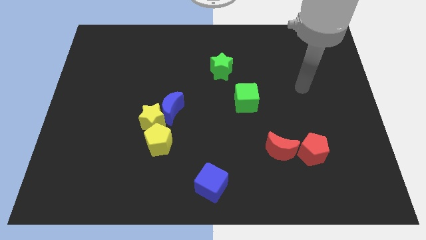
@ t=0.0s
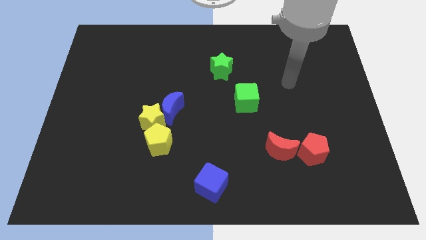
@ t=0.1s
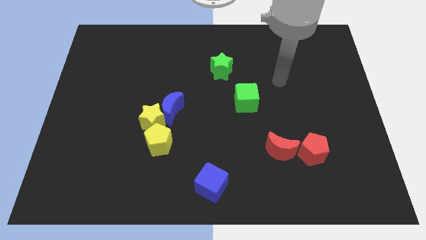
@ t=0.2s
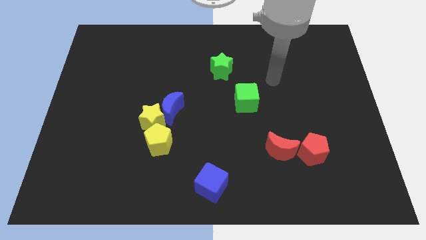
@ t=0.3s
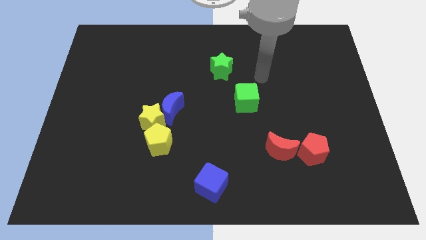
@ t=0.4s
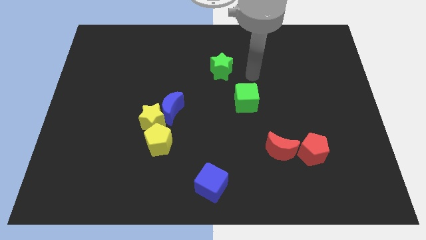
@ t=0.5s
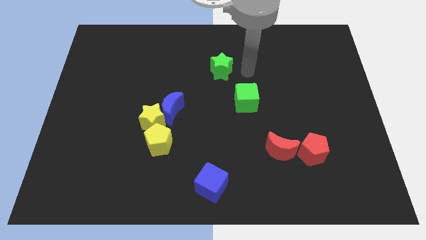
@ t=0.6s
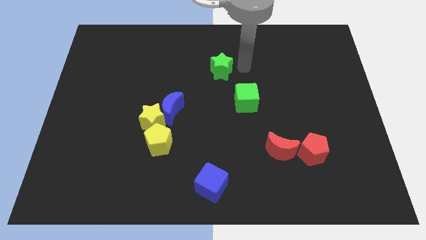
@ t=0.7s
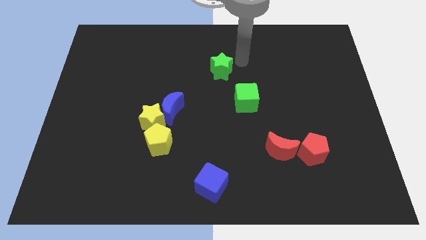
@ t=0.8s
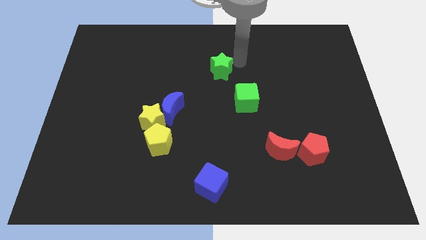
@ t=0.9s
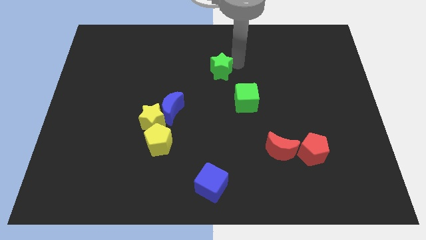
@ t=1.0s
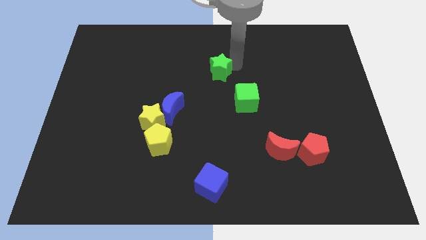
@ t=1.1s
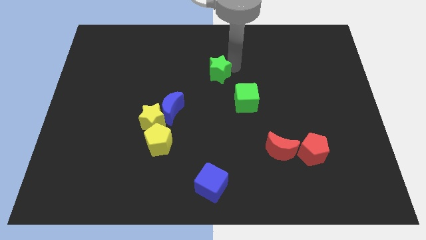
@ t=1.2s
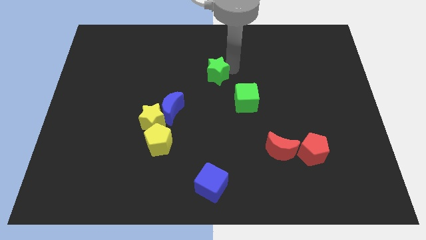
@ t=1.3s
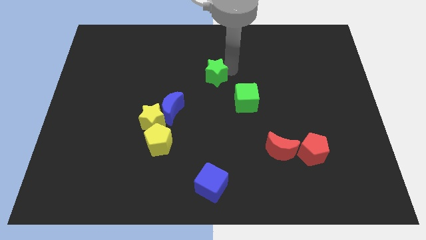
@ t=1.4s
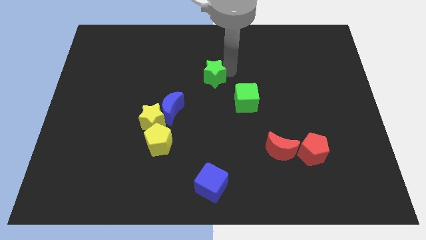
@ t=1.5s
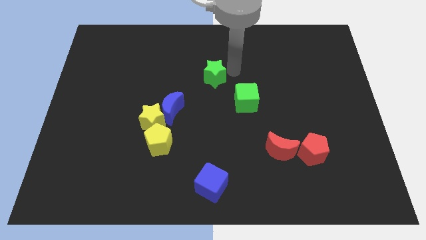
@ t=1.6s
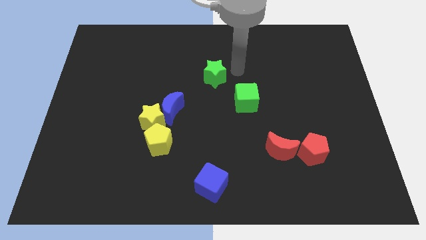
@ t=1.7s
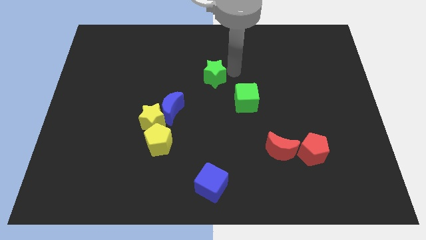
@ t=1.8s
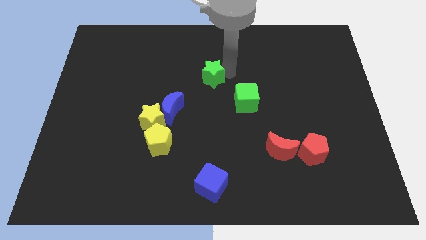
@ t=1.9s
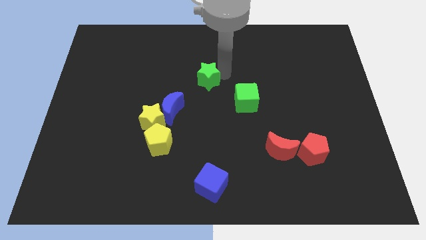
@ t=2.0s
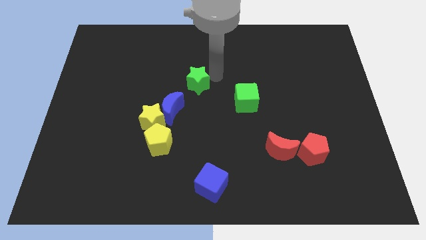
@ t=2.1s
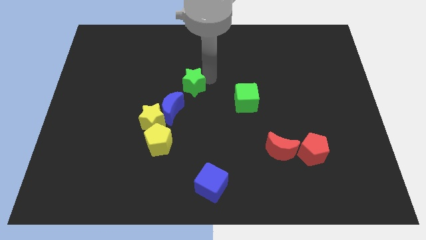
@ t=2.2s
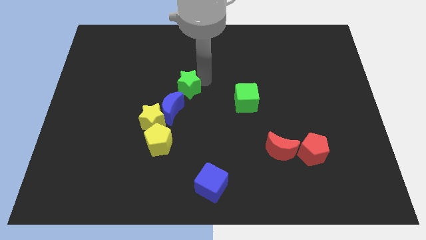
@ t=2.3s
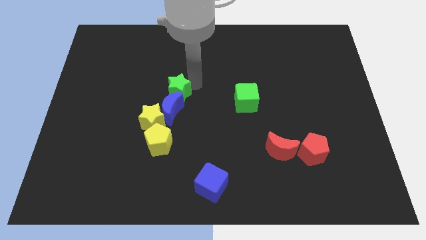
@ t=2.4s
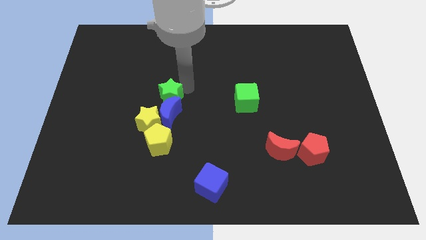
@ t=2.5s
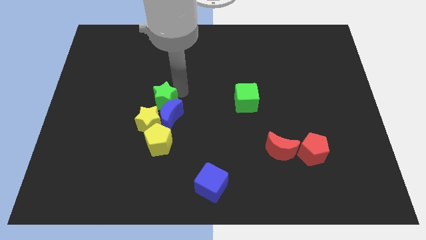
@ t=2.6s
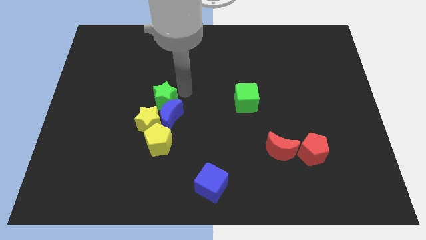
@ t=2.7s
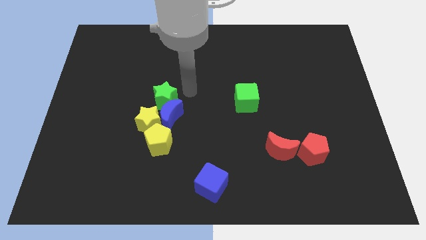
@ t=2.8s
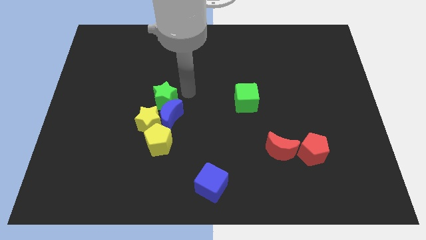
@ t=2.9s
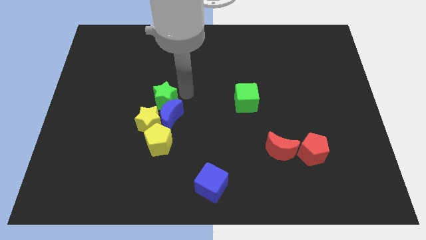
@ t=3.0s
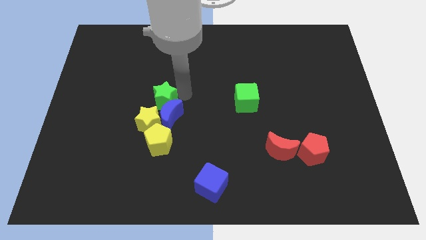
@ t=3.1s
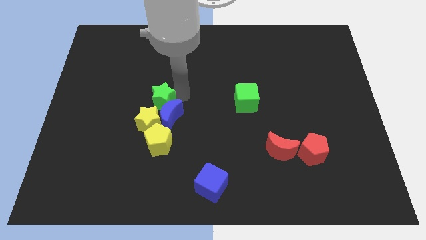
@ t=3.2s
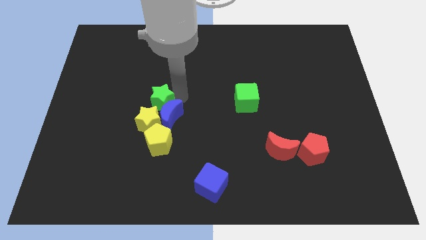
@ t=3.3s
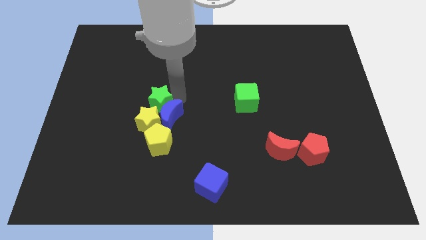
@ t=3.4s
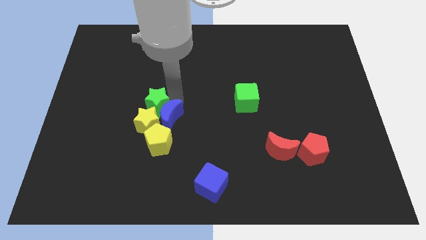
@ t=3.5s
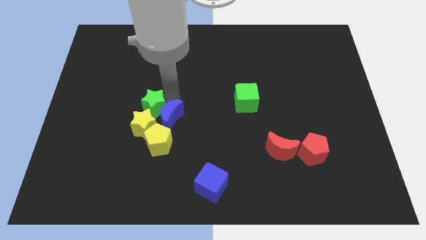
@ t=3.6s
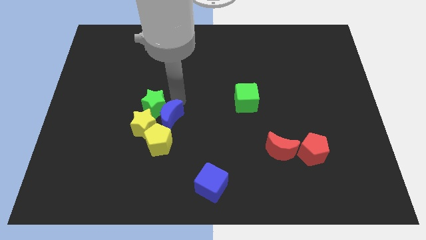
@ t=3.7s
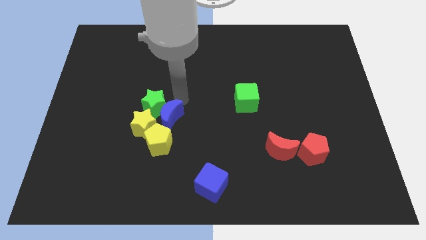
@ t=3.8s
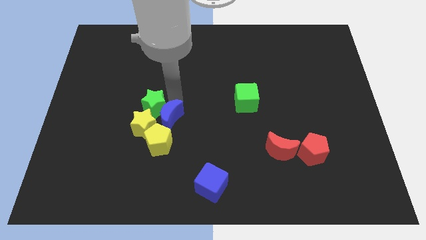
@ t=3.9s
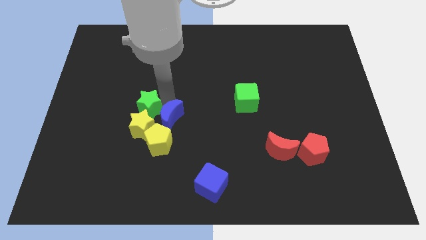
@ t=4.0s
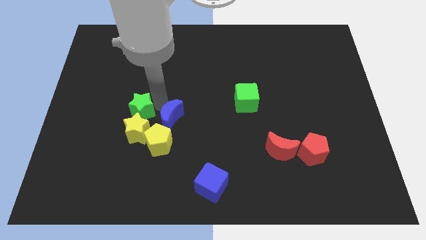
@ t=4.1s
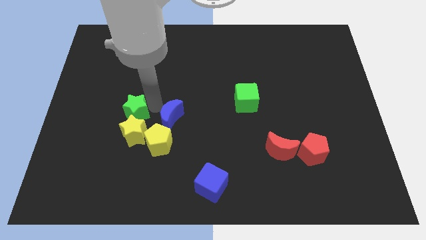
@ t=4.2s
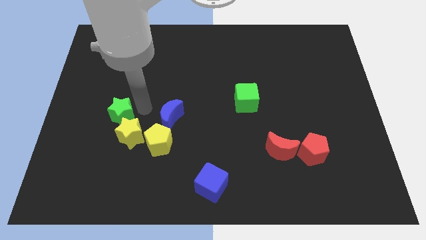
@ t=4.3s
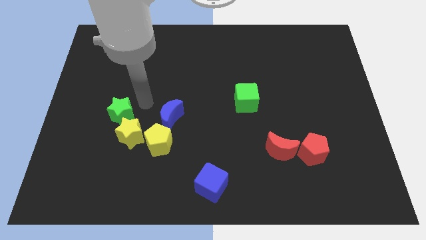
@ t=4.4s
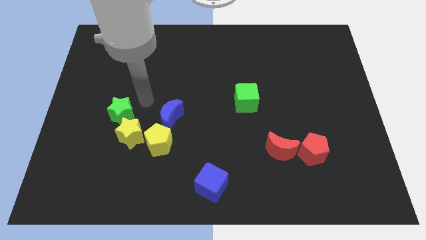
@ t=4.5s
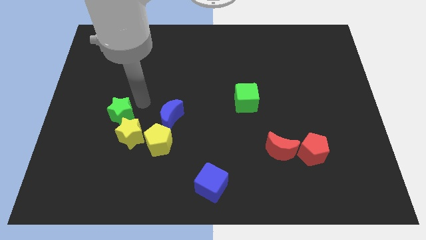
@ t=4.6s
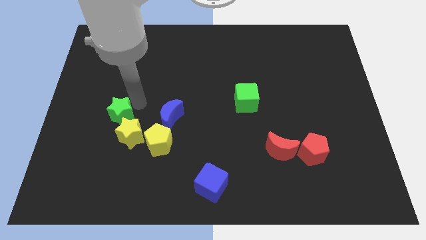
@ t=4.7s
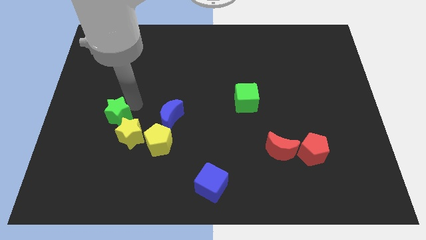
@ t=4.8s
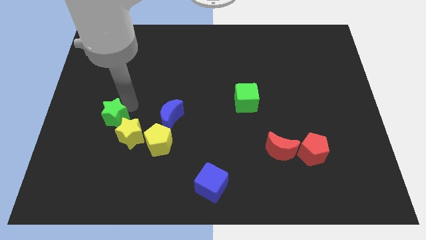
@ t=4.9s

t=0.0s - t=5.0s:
move the green star to the left of the yellow star

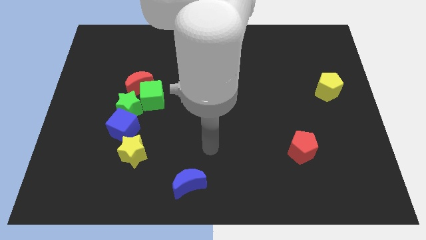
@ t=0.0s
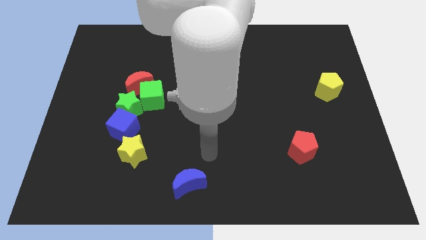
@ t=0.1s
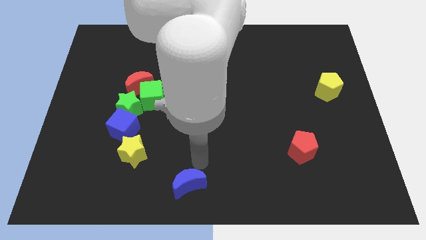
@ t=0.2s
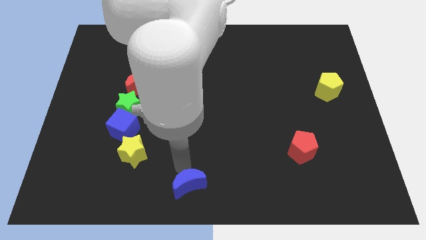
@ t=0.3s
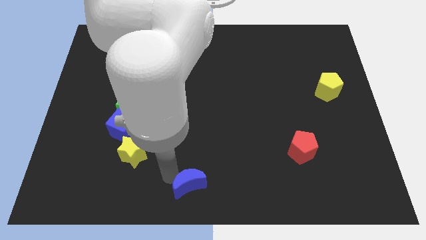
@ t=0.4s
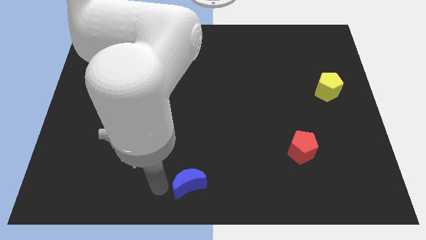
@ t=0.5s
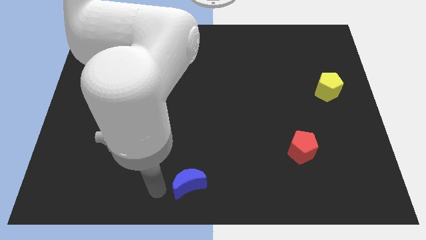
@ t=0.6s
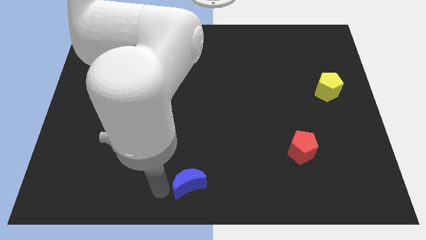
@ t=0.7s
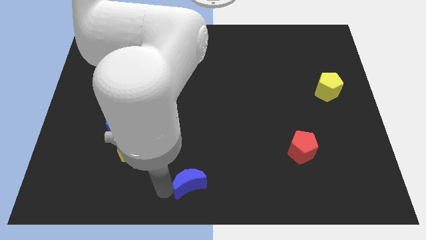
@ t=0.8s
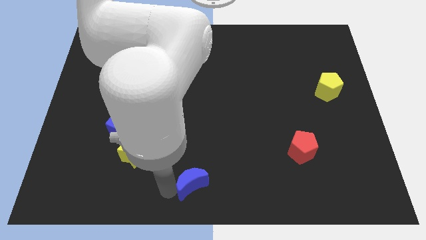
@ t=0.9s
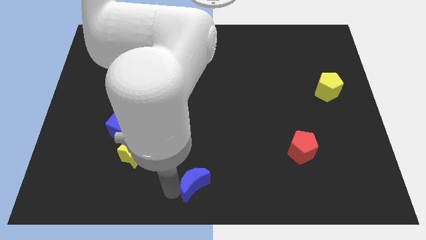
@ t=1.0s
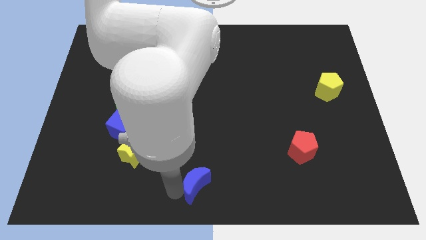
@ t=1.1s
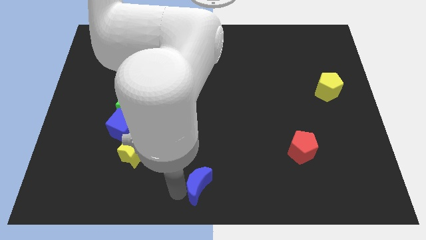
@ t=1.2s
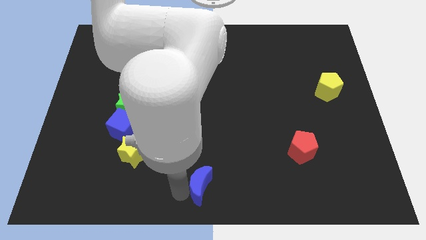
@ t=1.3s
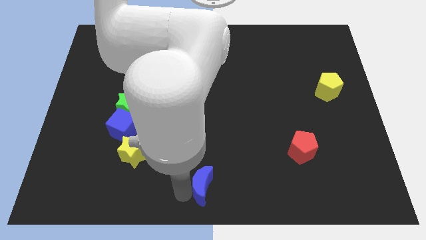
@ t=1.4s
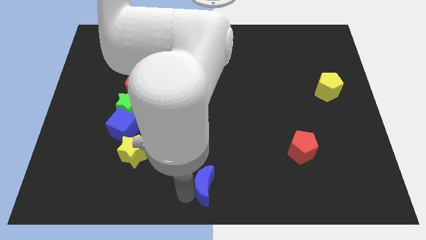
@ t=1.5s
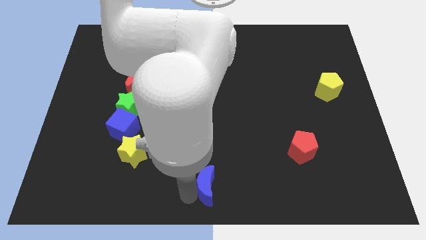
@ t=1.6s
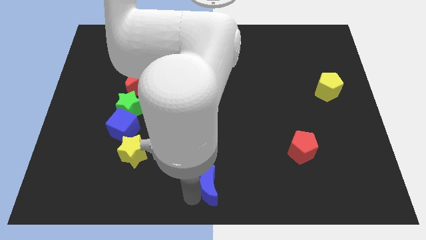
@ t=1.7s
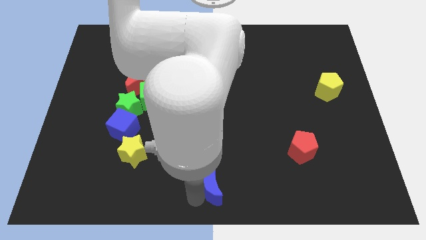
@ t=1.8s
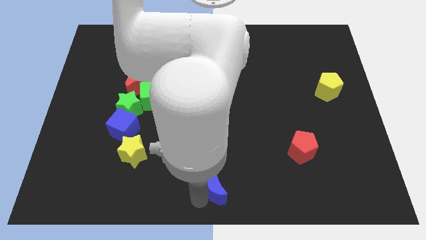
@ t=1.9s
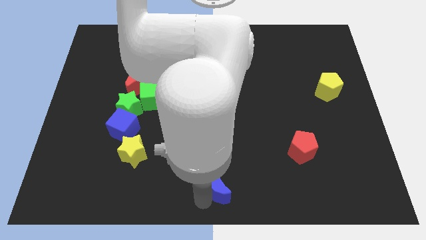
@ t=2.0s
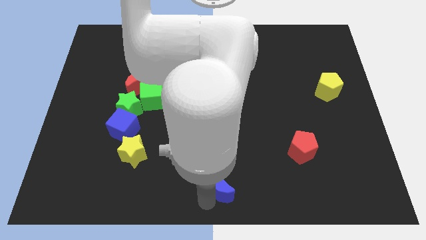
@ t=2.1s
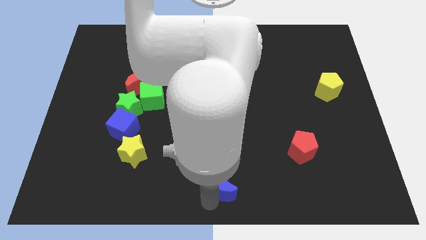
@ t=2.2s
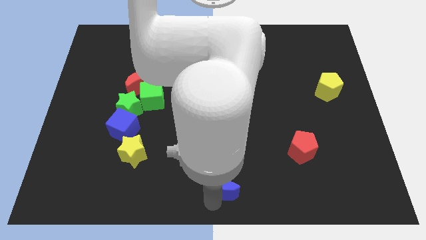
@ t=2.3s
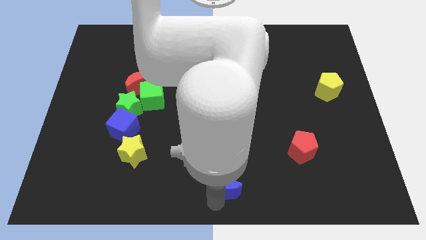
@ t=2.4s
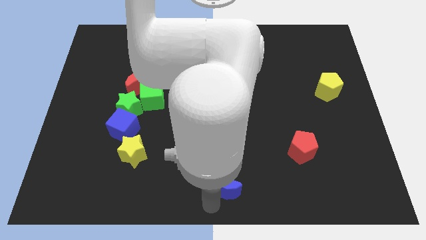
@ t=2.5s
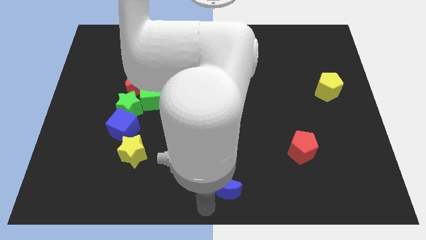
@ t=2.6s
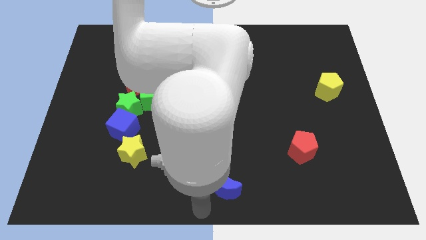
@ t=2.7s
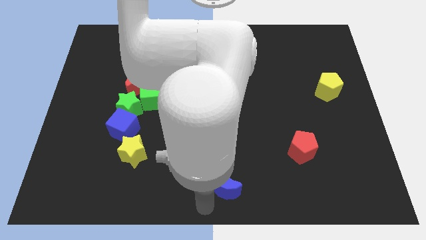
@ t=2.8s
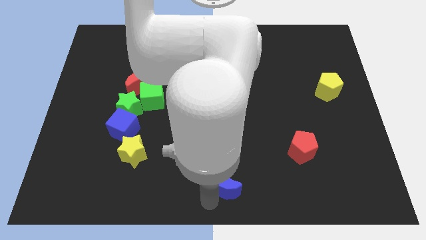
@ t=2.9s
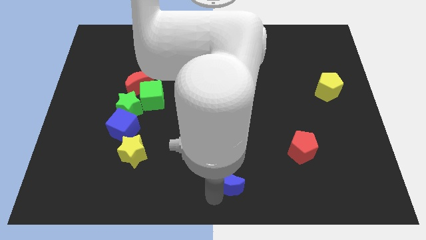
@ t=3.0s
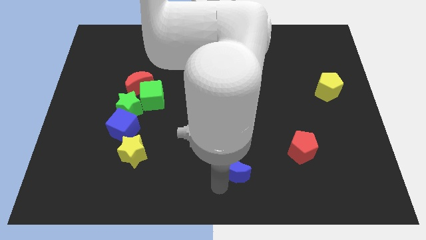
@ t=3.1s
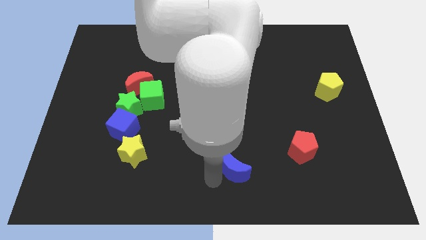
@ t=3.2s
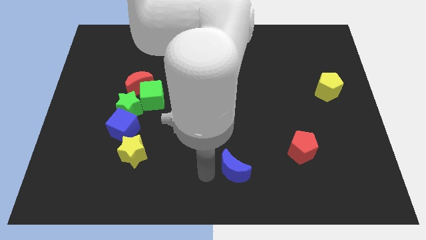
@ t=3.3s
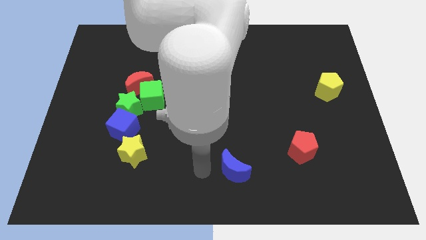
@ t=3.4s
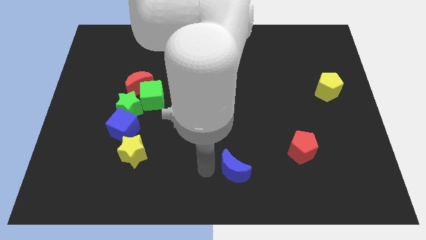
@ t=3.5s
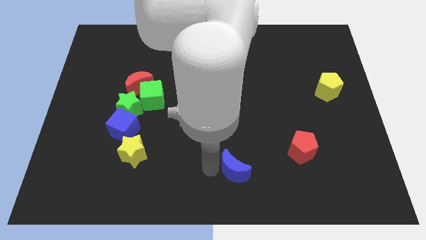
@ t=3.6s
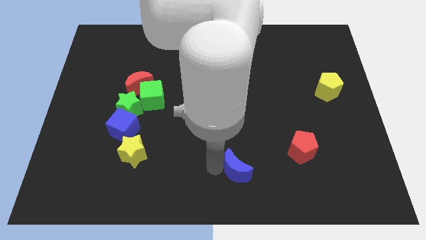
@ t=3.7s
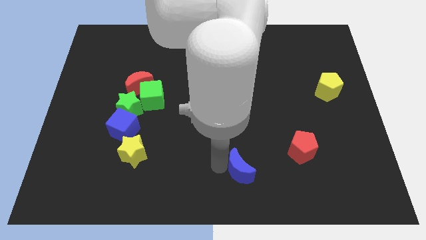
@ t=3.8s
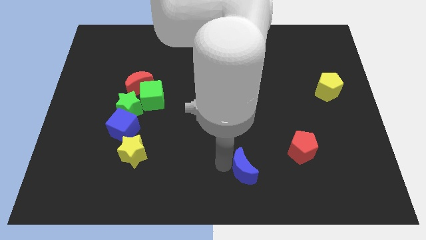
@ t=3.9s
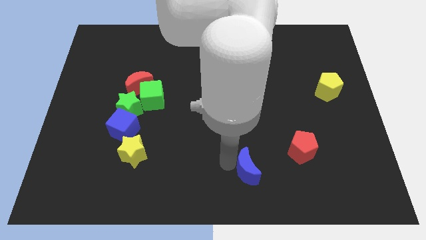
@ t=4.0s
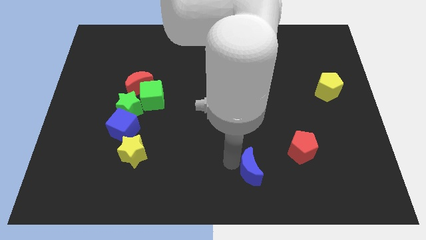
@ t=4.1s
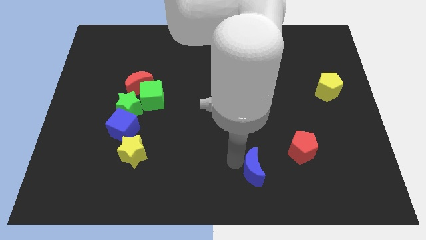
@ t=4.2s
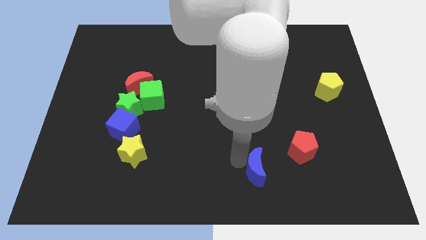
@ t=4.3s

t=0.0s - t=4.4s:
push the blue moon diagonally down and to the left of the red pentagon
